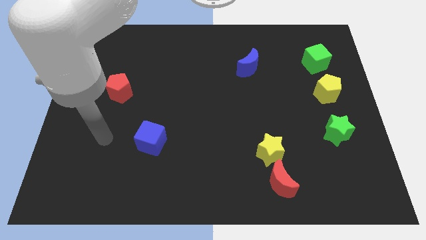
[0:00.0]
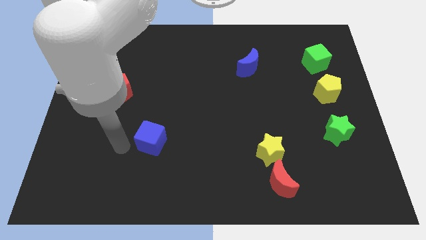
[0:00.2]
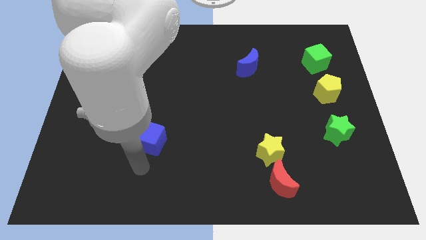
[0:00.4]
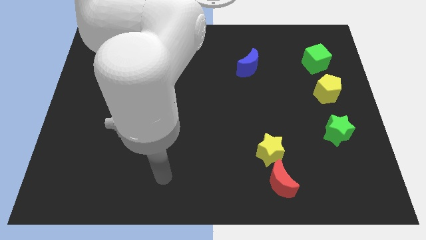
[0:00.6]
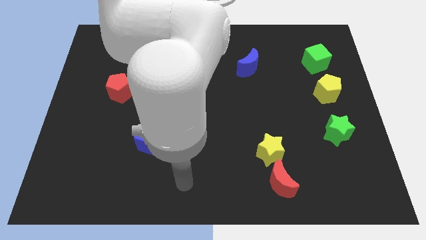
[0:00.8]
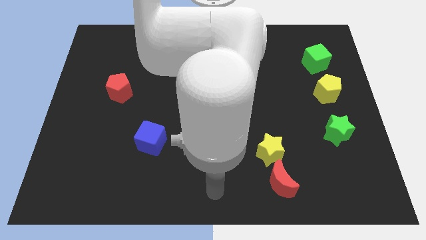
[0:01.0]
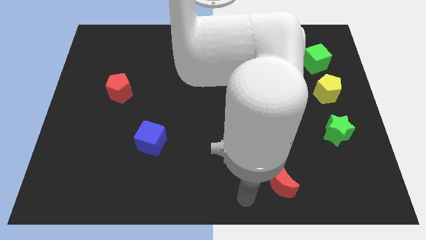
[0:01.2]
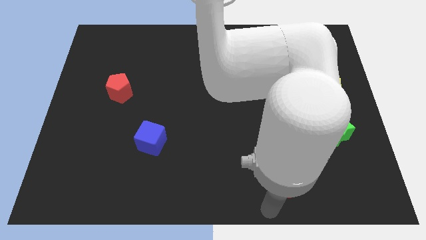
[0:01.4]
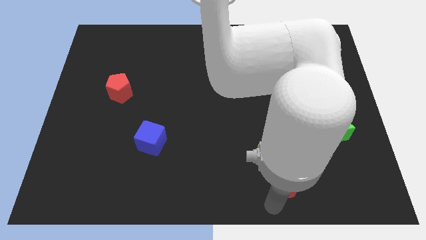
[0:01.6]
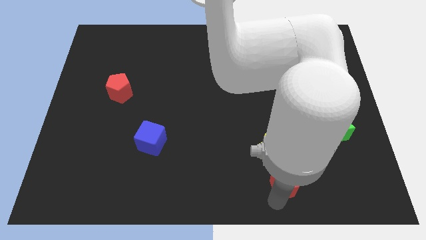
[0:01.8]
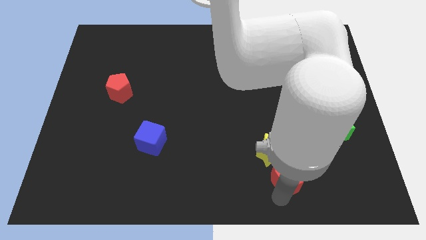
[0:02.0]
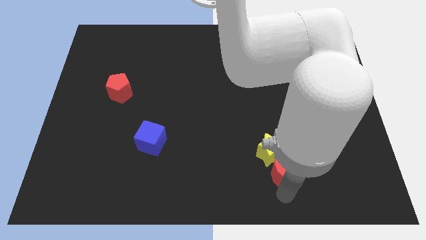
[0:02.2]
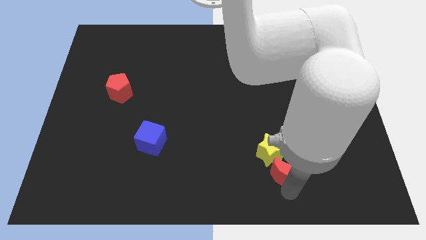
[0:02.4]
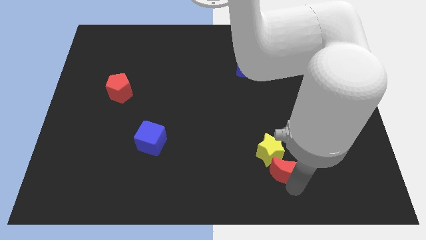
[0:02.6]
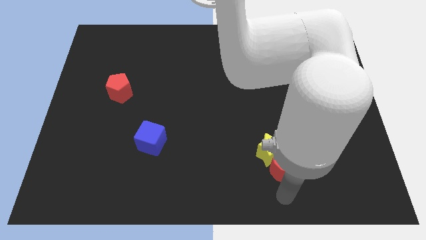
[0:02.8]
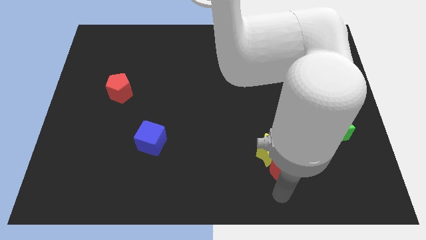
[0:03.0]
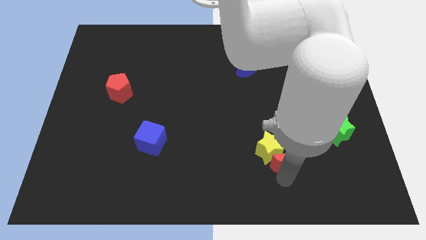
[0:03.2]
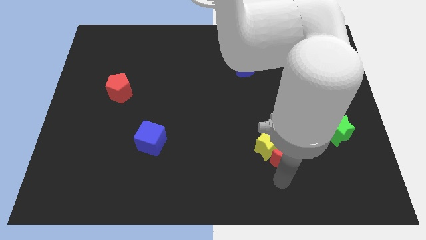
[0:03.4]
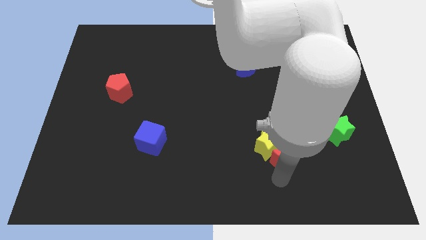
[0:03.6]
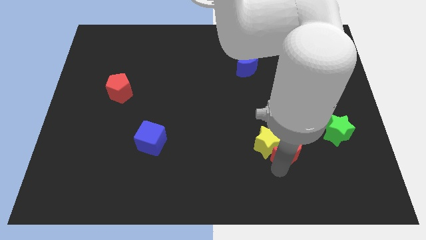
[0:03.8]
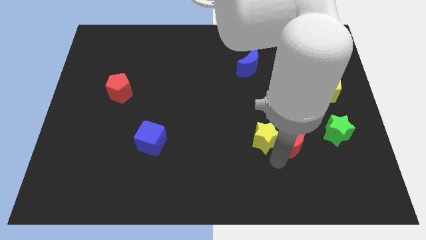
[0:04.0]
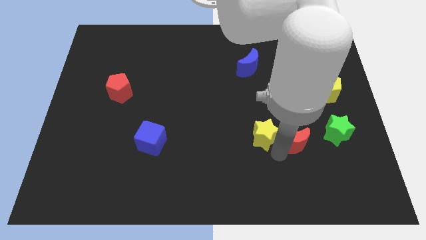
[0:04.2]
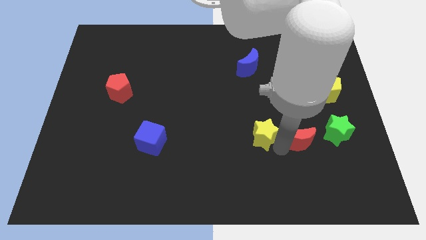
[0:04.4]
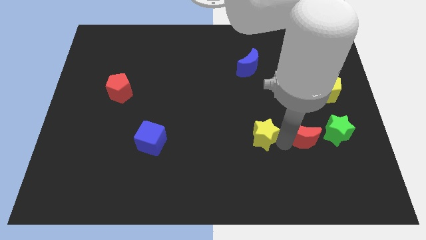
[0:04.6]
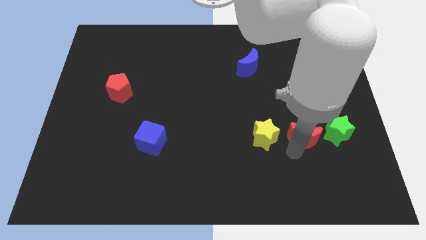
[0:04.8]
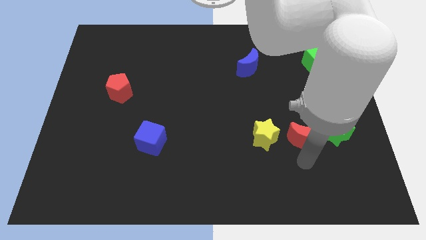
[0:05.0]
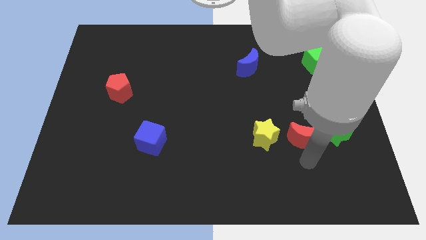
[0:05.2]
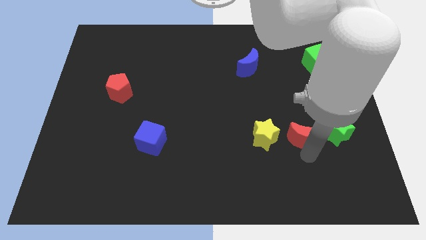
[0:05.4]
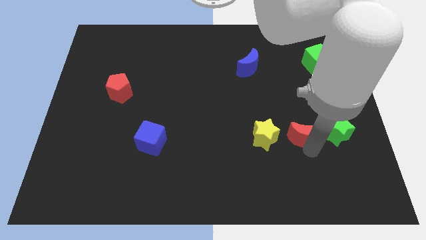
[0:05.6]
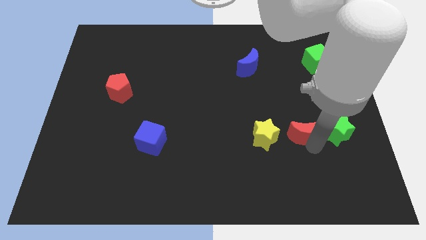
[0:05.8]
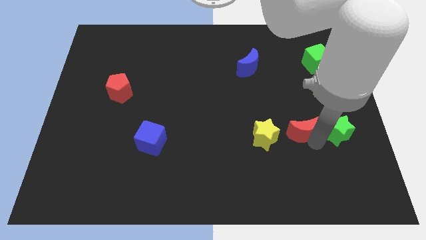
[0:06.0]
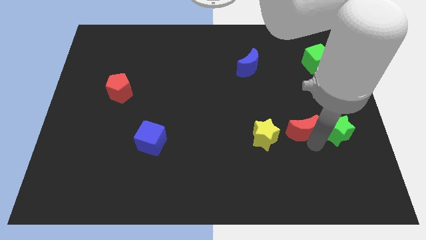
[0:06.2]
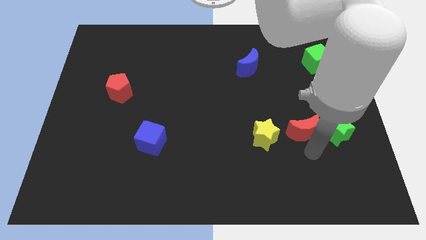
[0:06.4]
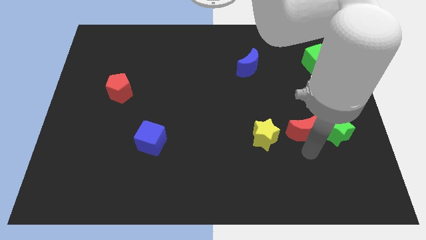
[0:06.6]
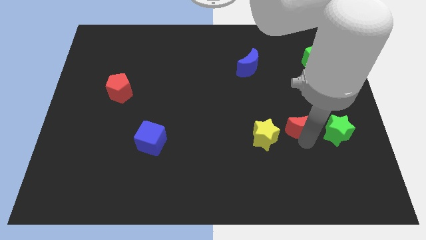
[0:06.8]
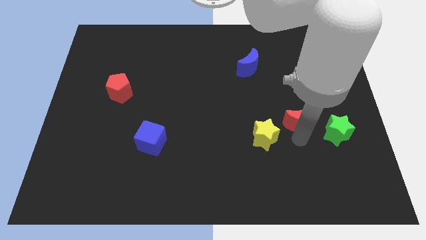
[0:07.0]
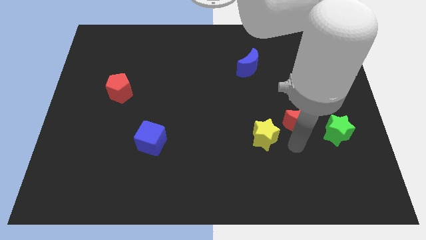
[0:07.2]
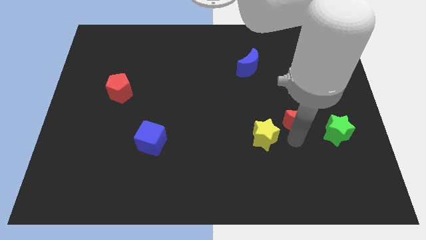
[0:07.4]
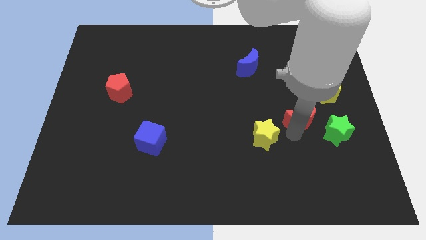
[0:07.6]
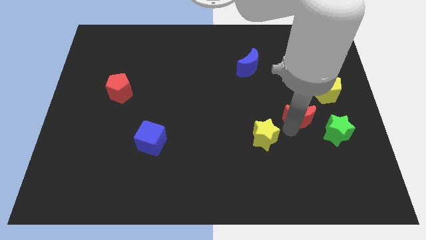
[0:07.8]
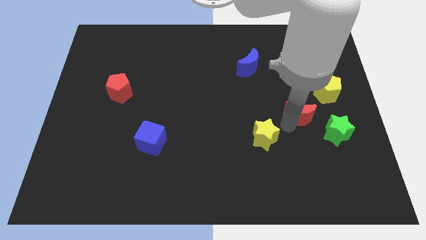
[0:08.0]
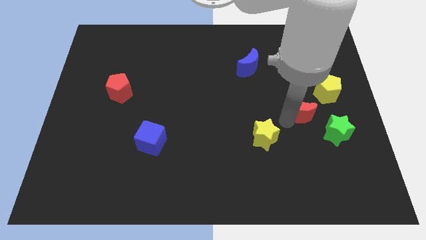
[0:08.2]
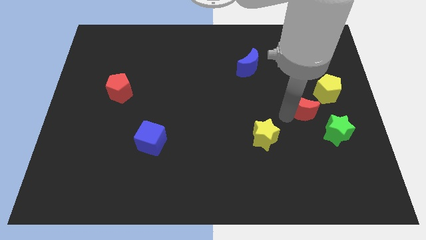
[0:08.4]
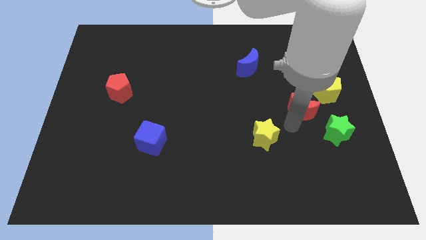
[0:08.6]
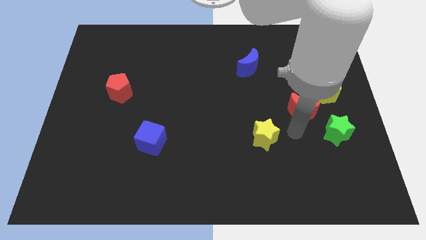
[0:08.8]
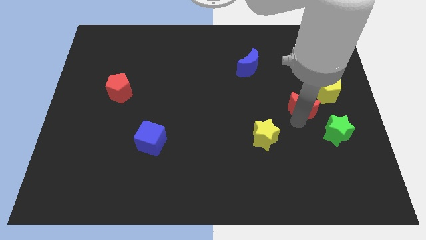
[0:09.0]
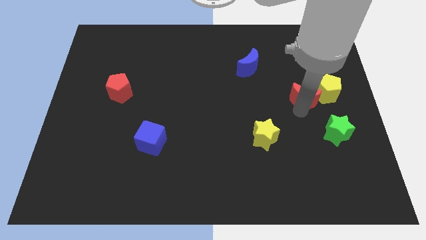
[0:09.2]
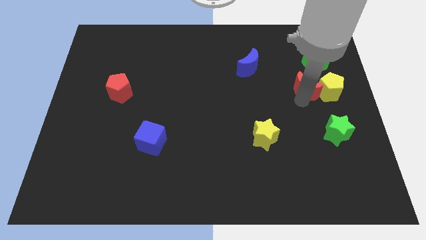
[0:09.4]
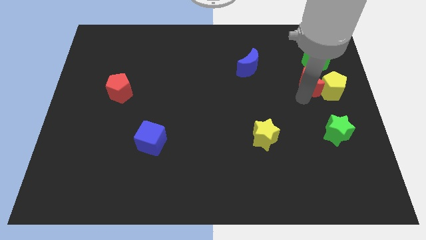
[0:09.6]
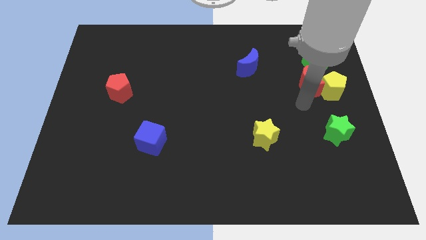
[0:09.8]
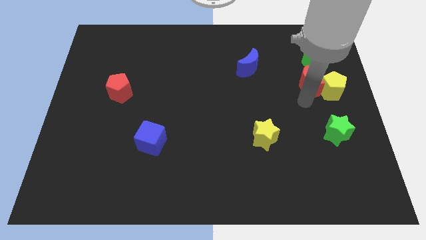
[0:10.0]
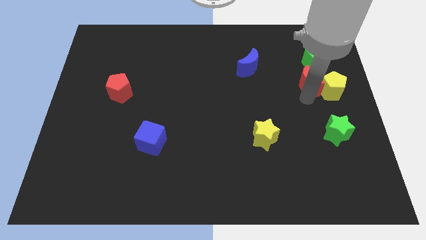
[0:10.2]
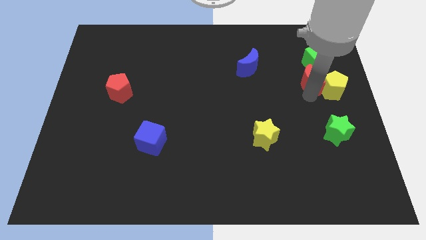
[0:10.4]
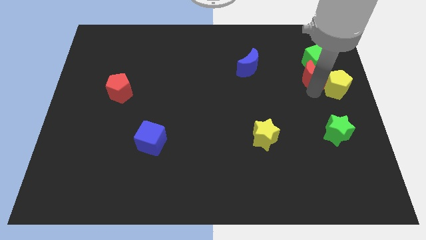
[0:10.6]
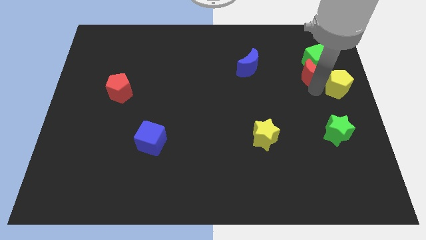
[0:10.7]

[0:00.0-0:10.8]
slide the red moon to the green cube

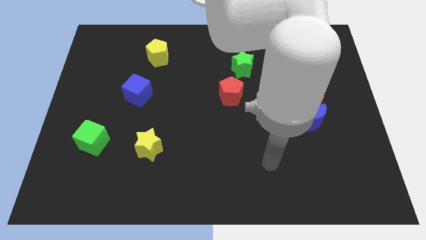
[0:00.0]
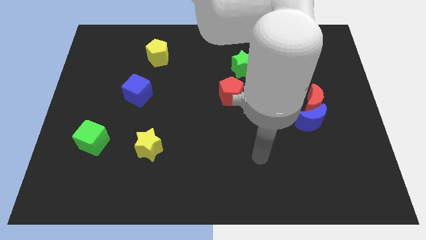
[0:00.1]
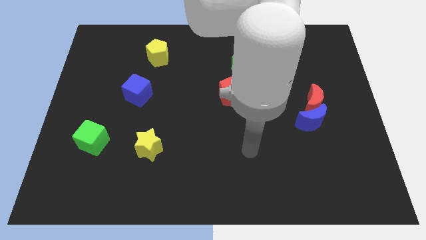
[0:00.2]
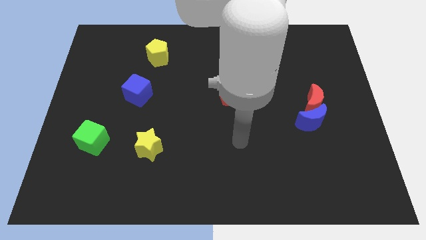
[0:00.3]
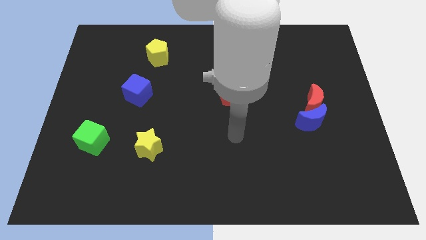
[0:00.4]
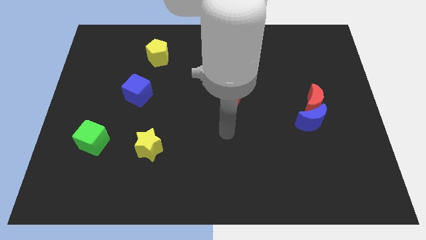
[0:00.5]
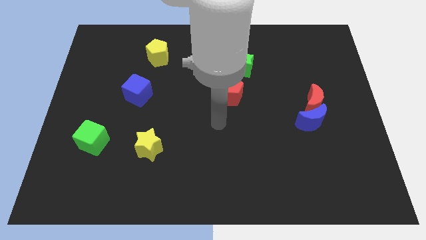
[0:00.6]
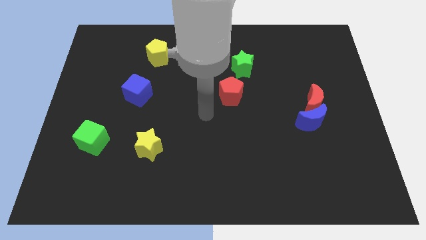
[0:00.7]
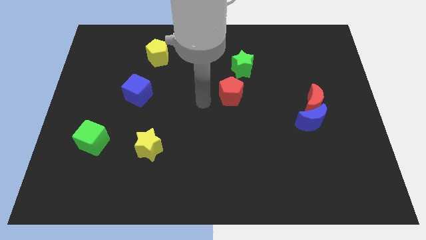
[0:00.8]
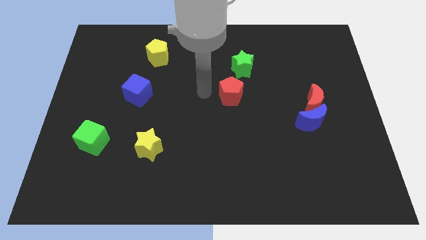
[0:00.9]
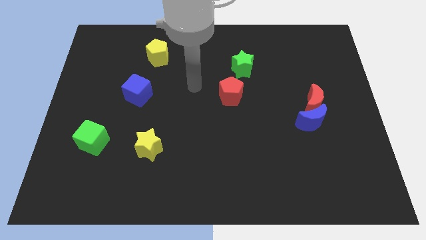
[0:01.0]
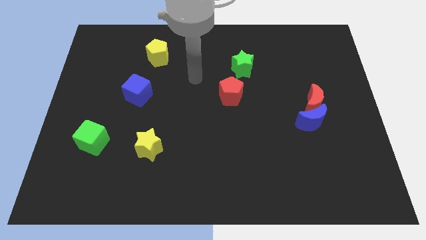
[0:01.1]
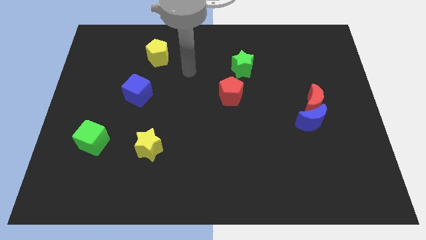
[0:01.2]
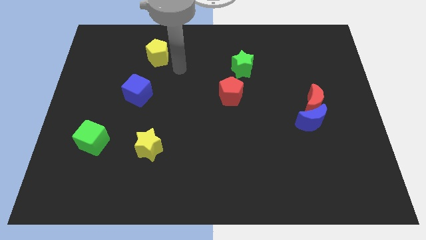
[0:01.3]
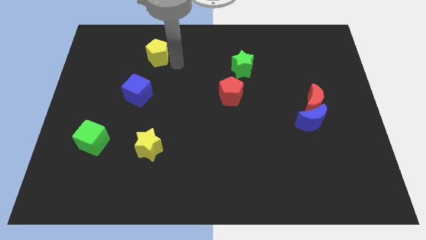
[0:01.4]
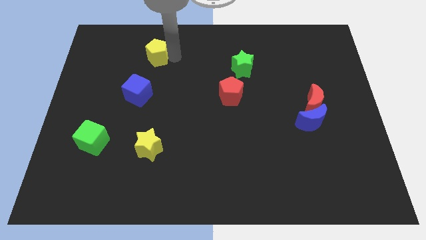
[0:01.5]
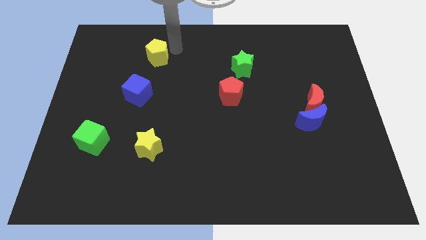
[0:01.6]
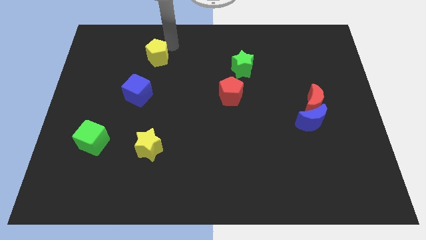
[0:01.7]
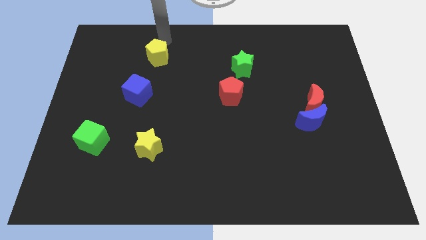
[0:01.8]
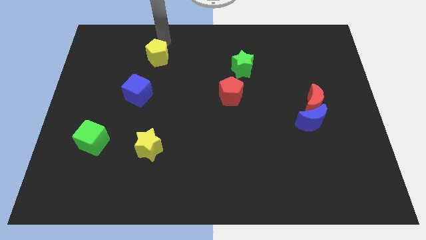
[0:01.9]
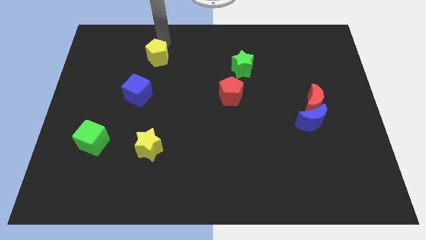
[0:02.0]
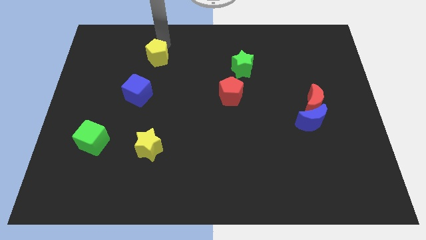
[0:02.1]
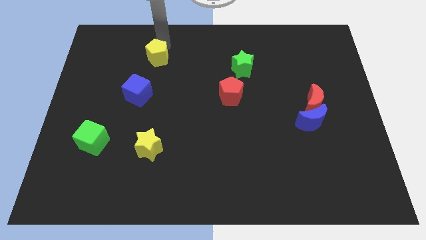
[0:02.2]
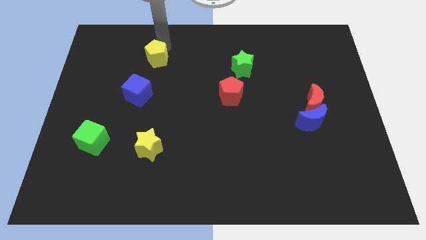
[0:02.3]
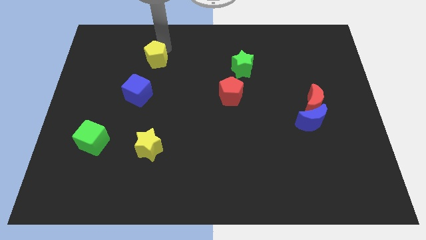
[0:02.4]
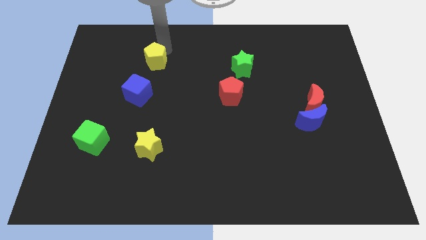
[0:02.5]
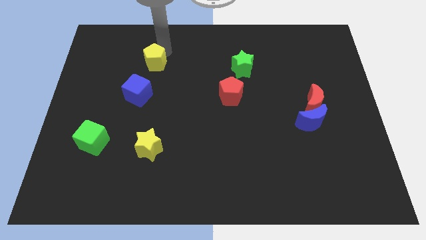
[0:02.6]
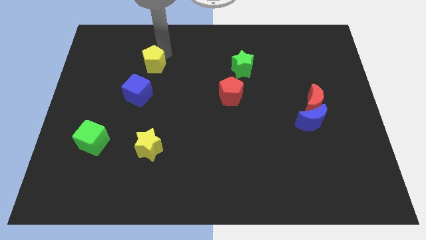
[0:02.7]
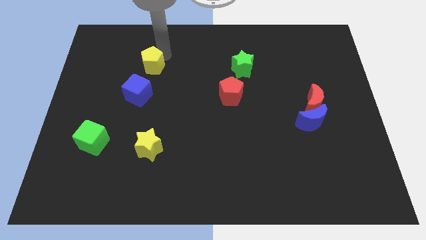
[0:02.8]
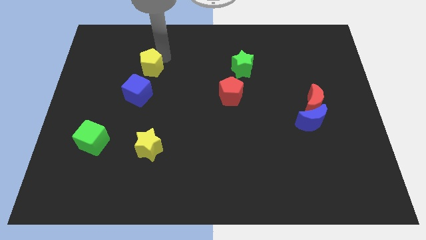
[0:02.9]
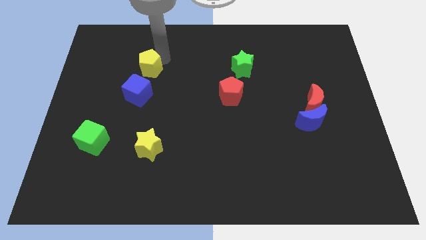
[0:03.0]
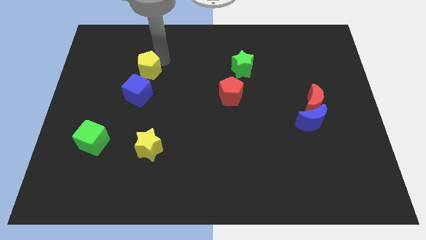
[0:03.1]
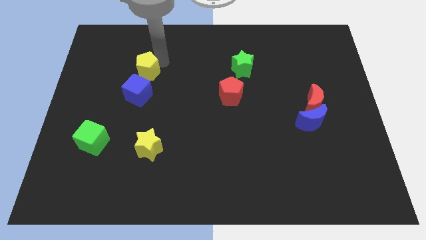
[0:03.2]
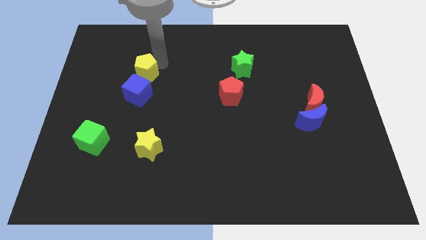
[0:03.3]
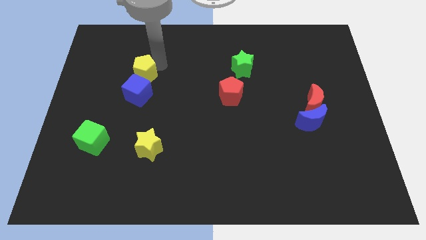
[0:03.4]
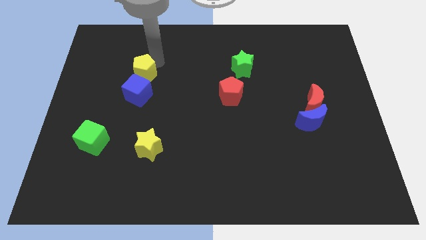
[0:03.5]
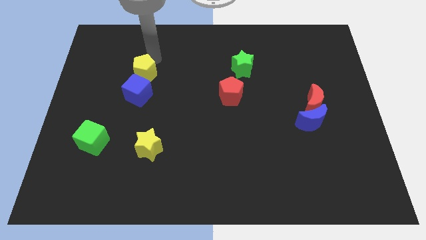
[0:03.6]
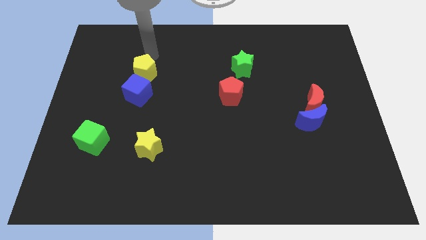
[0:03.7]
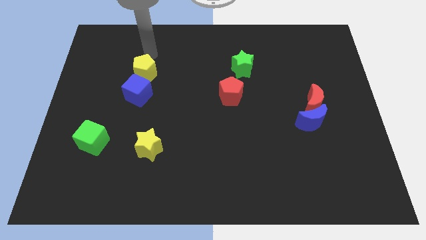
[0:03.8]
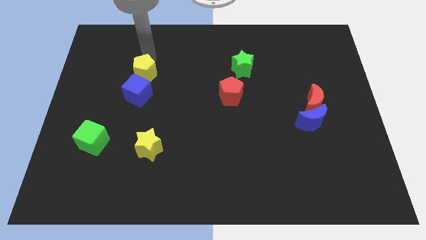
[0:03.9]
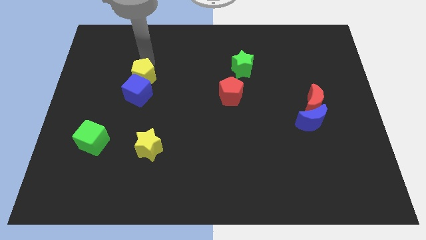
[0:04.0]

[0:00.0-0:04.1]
put the yellow pentagon towards the blue cube
